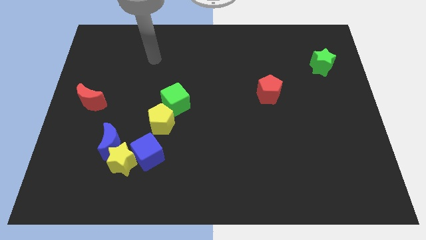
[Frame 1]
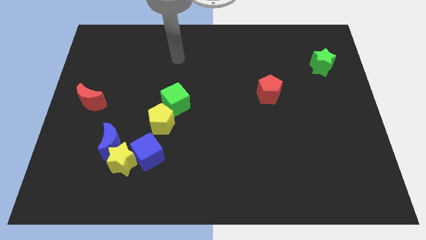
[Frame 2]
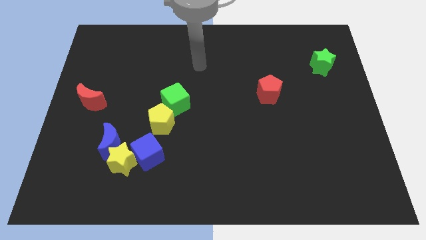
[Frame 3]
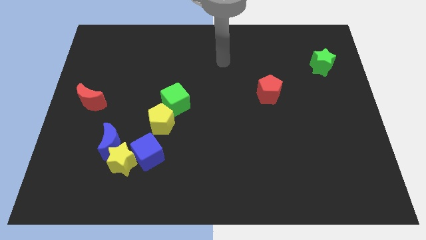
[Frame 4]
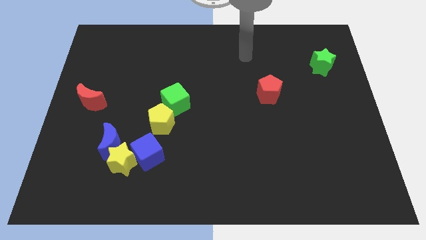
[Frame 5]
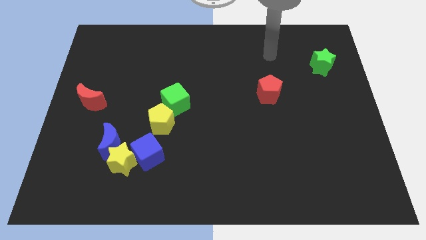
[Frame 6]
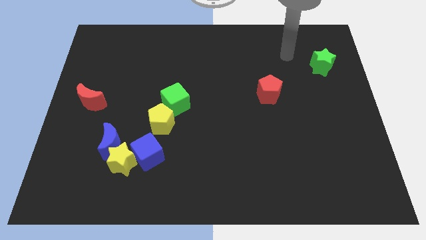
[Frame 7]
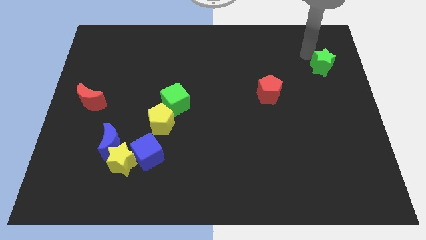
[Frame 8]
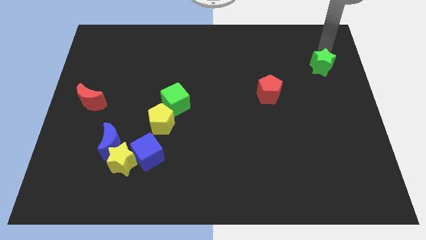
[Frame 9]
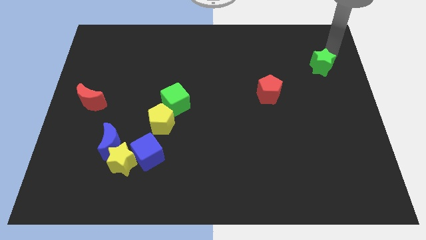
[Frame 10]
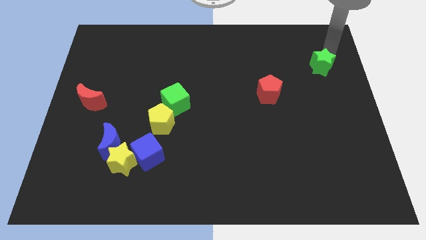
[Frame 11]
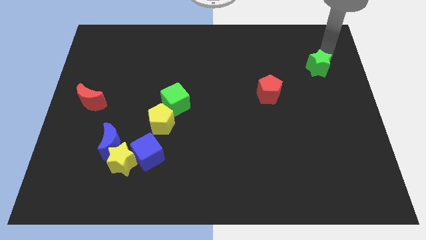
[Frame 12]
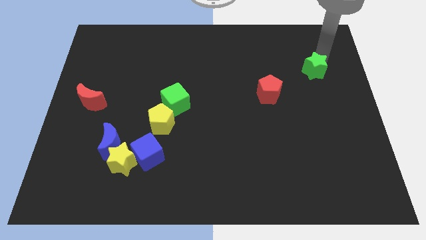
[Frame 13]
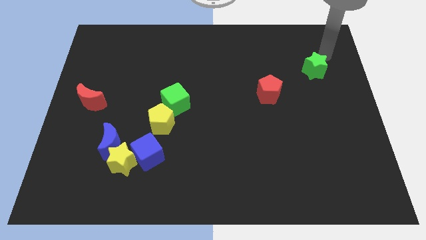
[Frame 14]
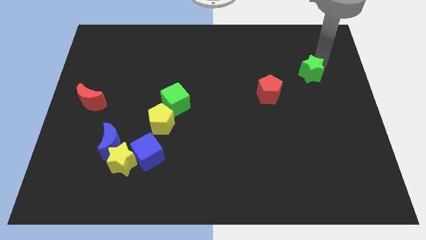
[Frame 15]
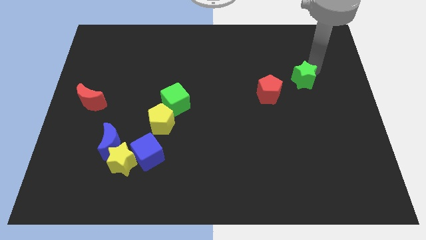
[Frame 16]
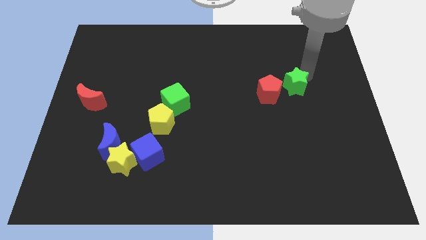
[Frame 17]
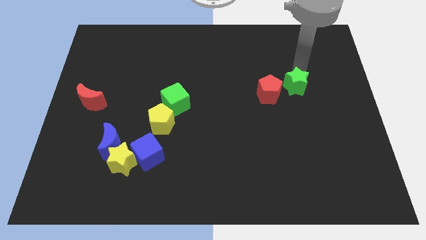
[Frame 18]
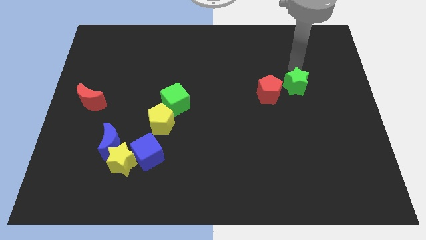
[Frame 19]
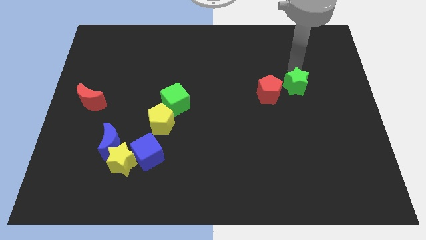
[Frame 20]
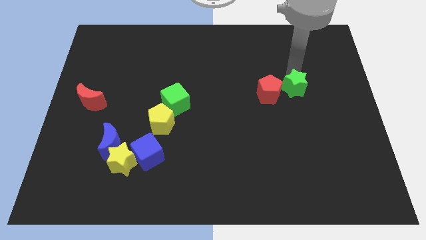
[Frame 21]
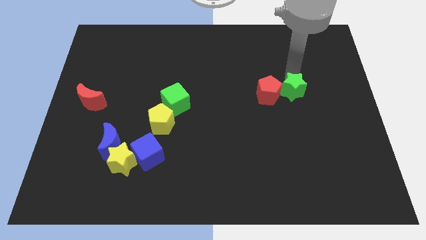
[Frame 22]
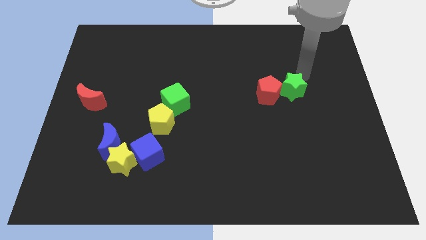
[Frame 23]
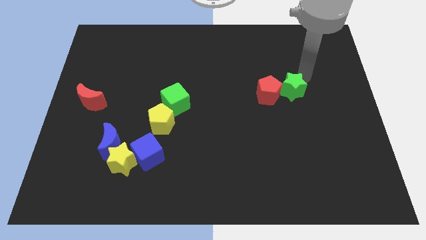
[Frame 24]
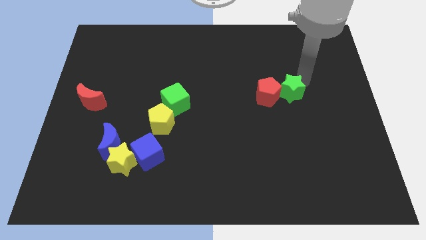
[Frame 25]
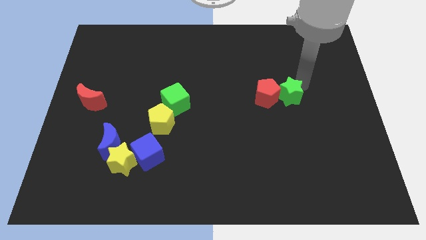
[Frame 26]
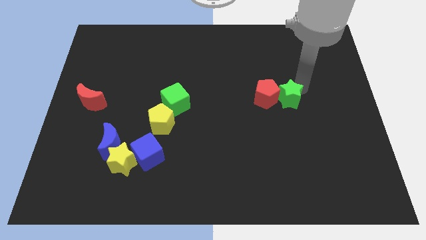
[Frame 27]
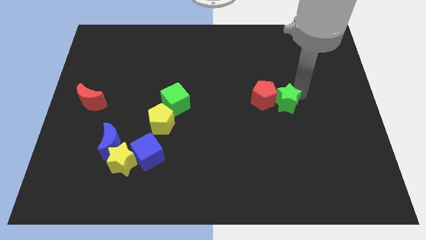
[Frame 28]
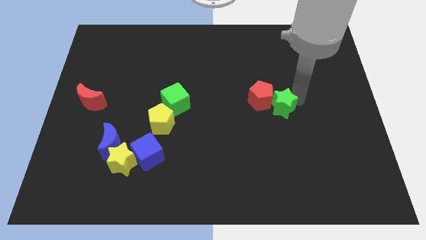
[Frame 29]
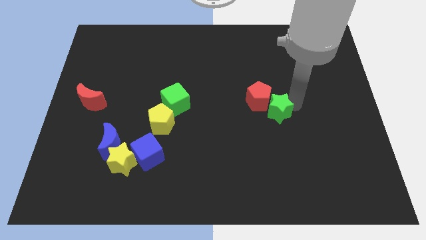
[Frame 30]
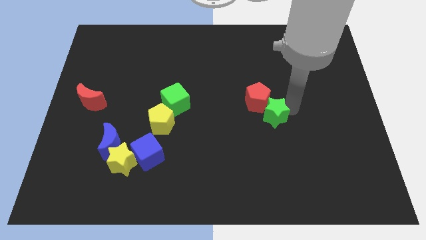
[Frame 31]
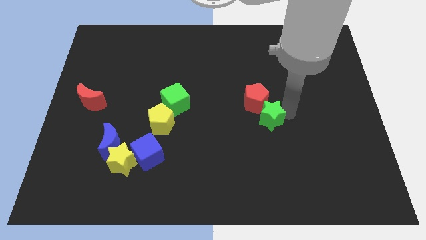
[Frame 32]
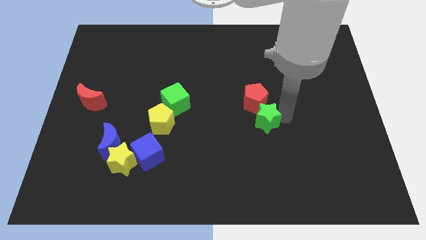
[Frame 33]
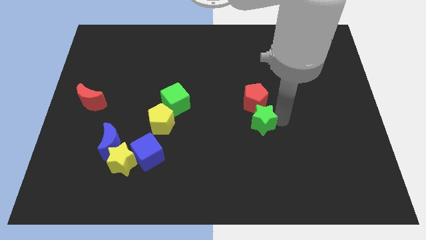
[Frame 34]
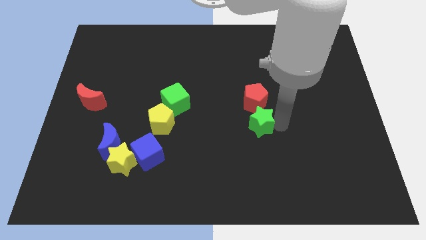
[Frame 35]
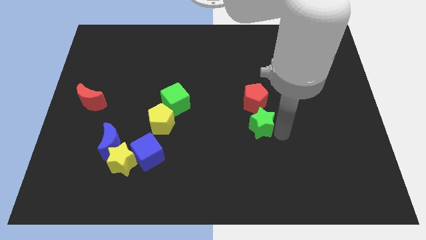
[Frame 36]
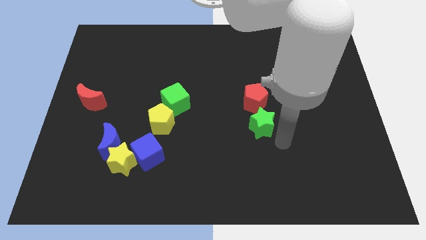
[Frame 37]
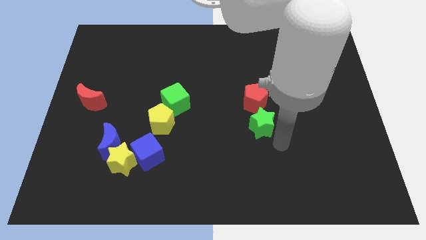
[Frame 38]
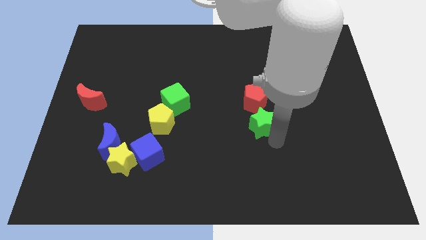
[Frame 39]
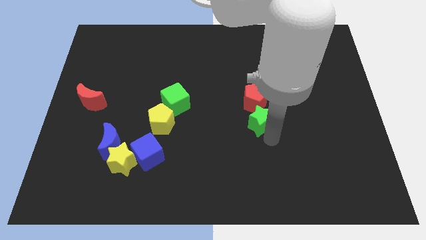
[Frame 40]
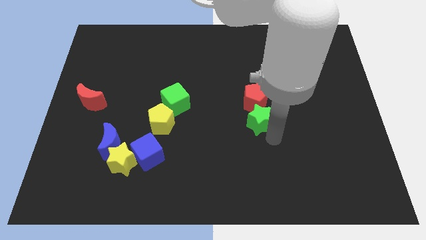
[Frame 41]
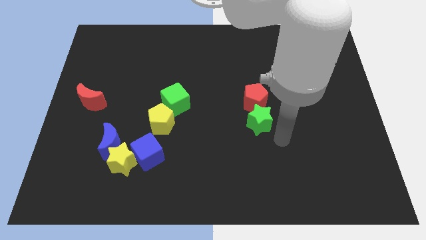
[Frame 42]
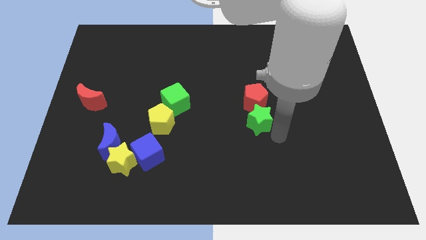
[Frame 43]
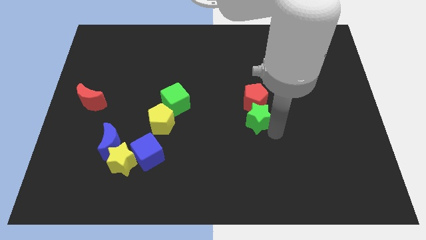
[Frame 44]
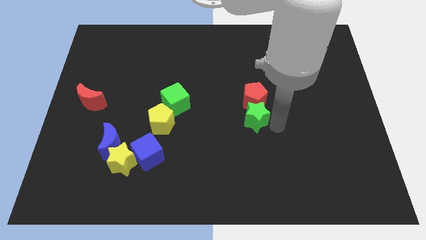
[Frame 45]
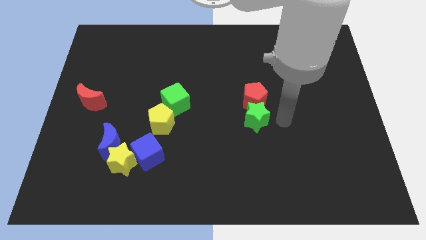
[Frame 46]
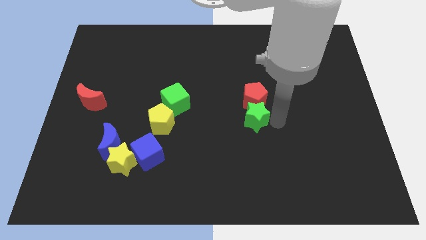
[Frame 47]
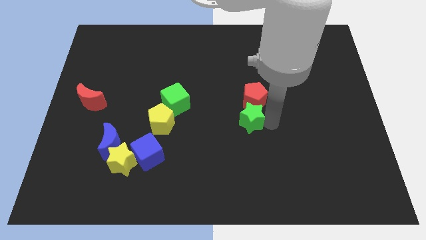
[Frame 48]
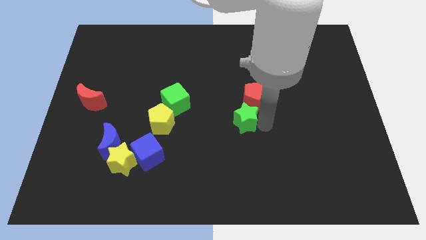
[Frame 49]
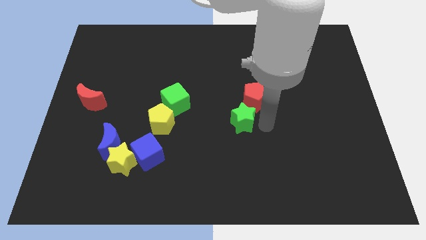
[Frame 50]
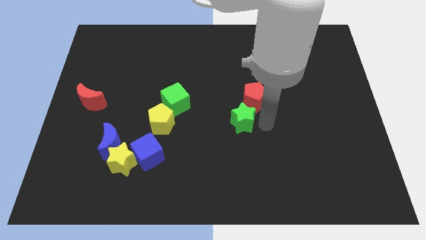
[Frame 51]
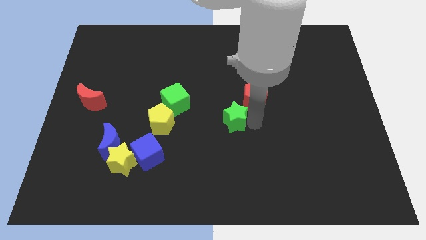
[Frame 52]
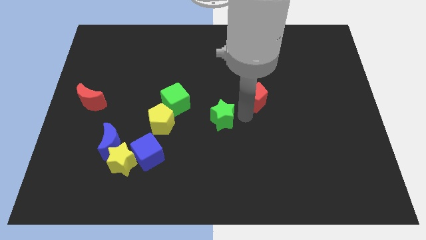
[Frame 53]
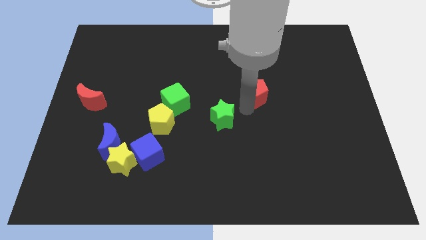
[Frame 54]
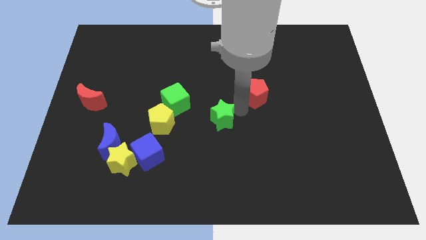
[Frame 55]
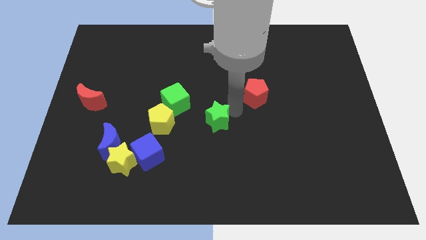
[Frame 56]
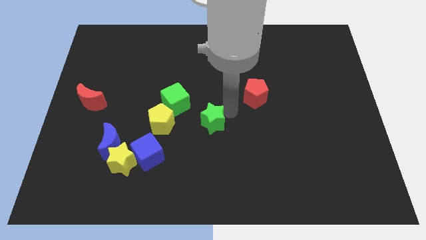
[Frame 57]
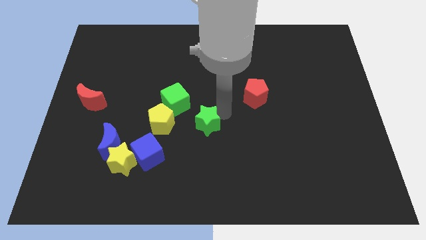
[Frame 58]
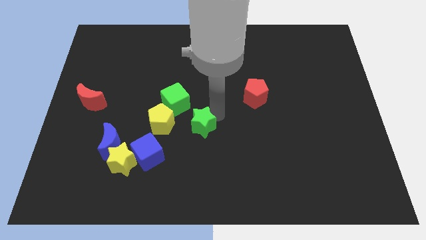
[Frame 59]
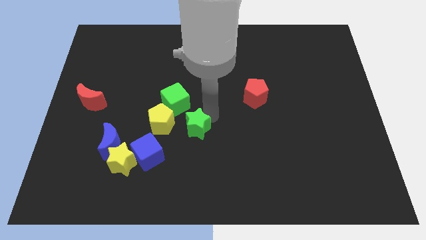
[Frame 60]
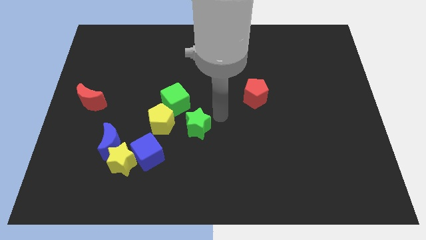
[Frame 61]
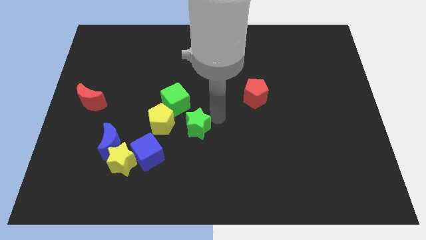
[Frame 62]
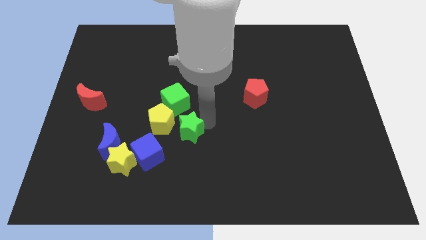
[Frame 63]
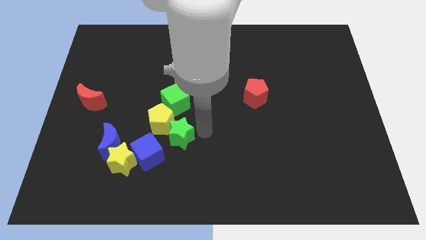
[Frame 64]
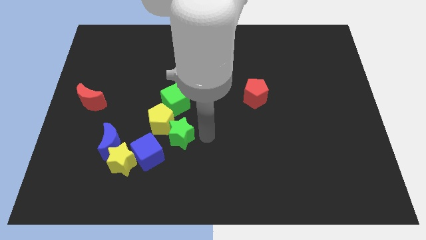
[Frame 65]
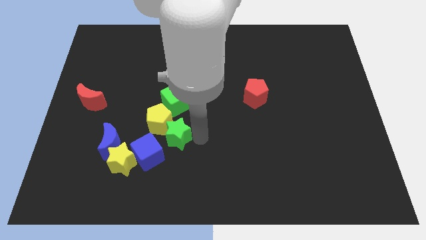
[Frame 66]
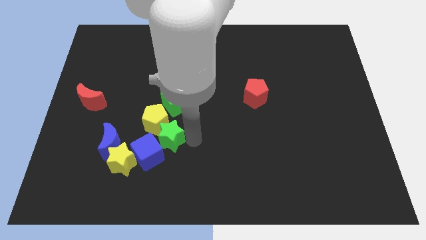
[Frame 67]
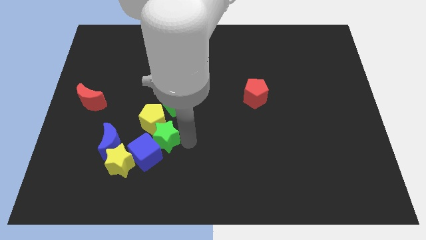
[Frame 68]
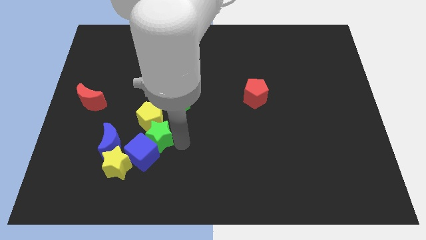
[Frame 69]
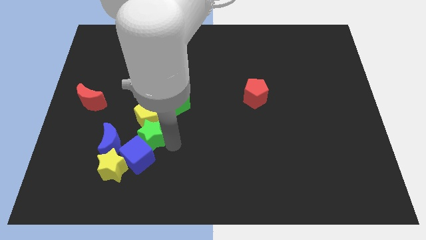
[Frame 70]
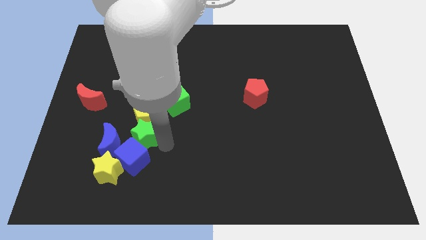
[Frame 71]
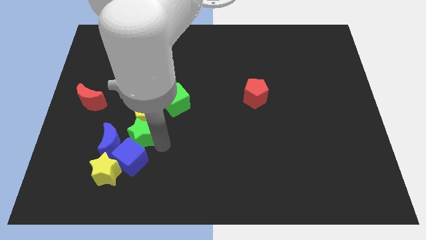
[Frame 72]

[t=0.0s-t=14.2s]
push the green star diagonally up and to the left of the blue cube
